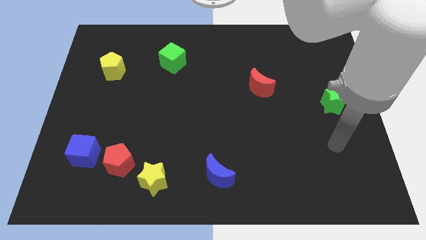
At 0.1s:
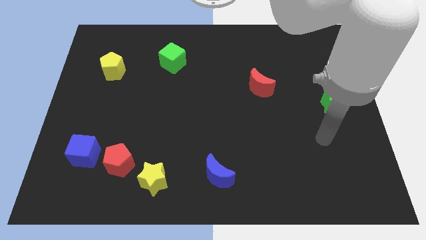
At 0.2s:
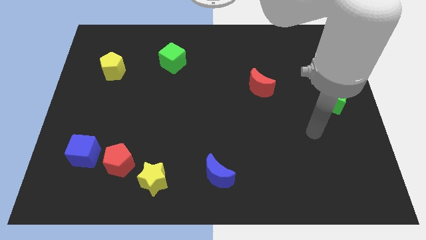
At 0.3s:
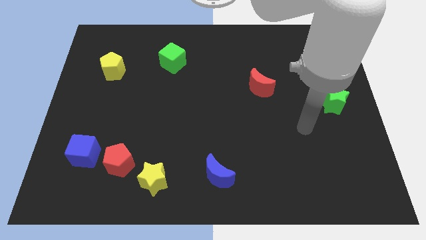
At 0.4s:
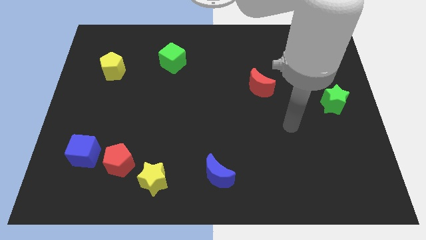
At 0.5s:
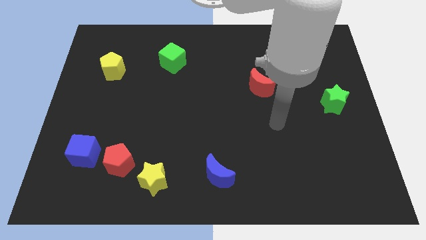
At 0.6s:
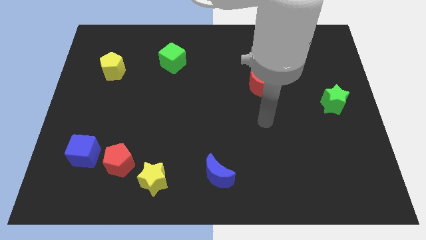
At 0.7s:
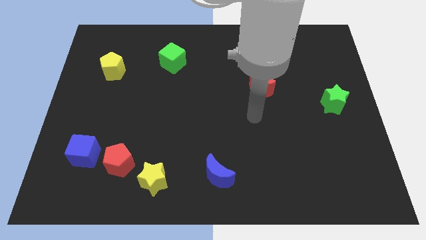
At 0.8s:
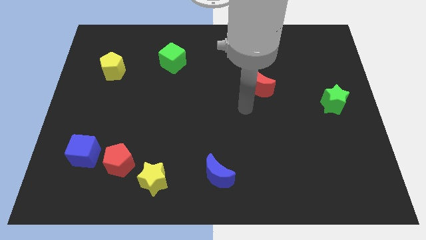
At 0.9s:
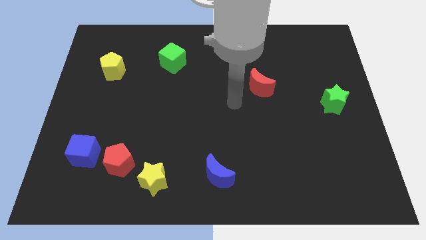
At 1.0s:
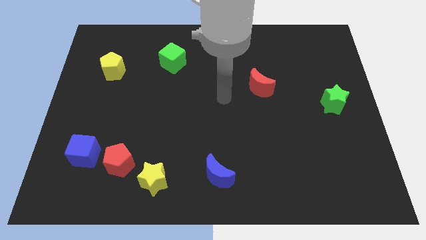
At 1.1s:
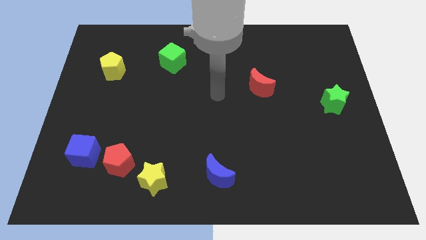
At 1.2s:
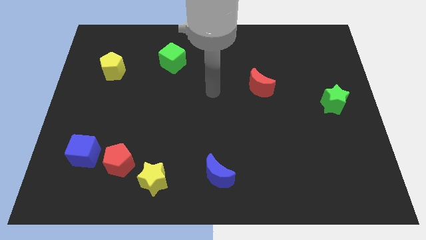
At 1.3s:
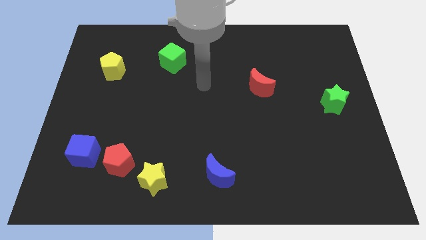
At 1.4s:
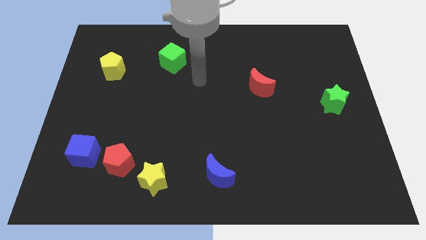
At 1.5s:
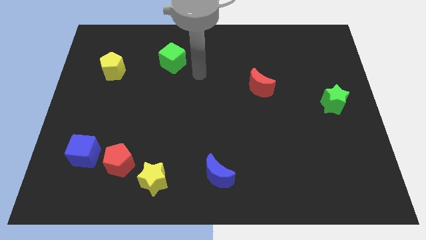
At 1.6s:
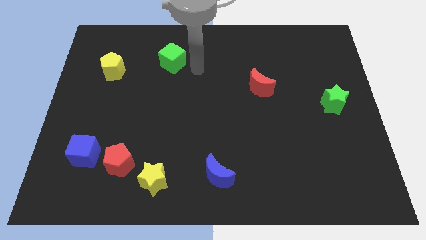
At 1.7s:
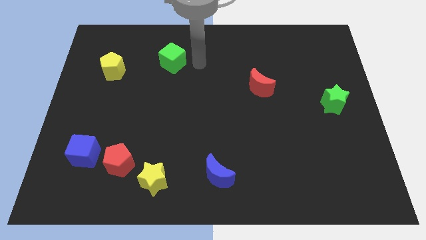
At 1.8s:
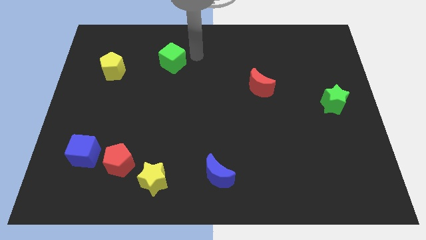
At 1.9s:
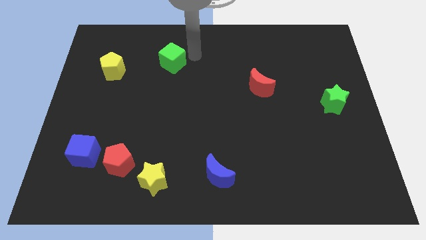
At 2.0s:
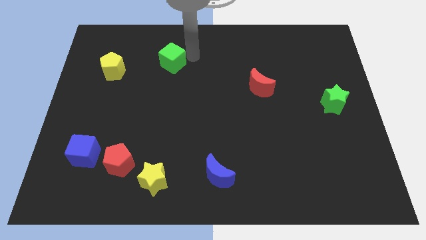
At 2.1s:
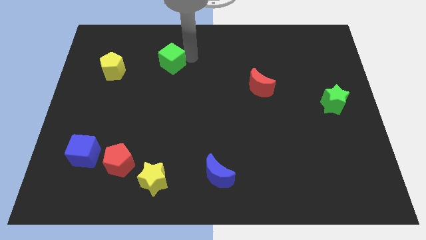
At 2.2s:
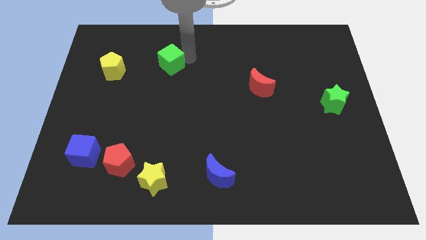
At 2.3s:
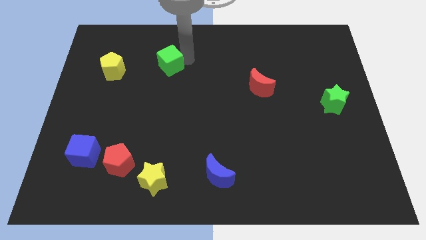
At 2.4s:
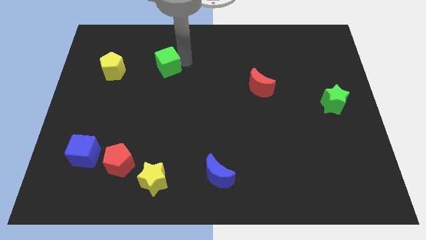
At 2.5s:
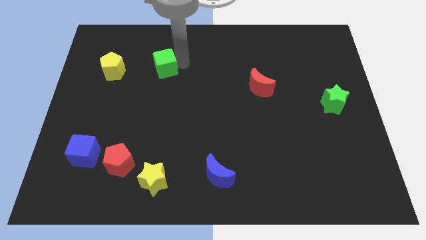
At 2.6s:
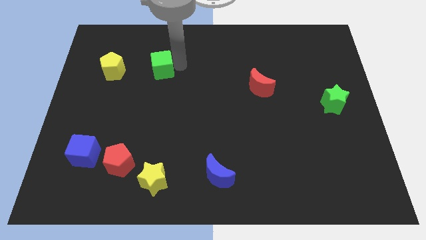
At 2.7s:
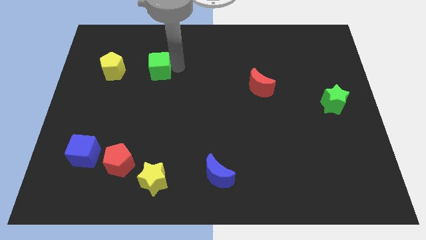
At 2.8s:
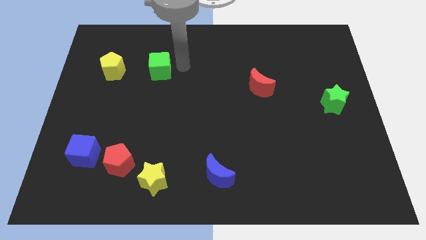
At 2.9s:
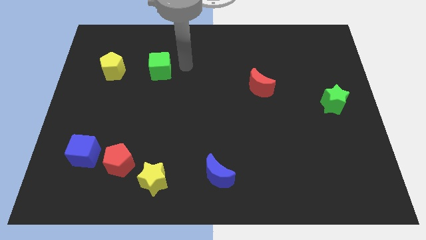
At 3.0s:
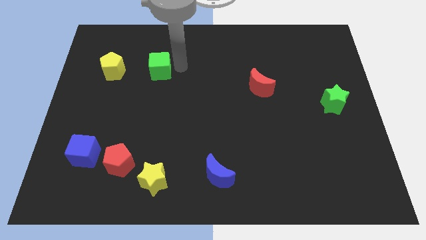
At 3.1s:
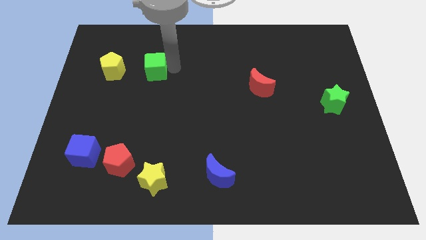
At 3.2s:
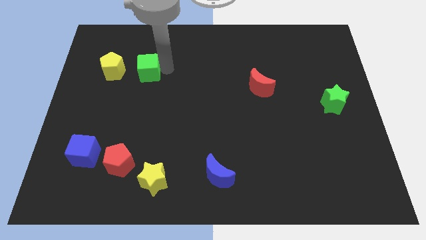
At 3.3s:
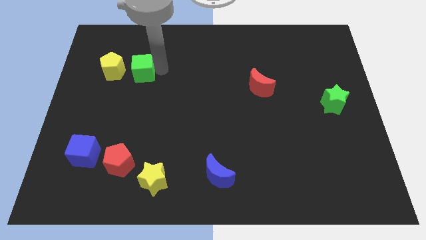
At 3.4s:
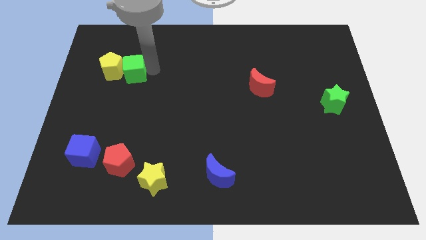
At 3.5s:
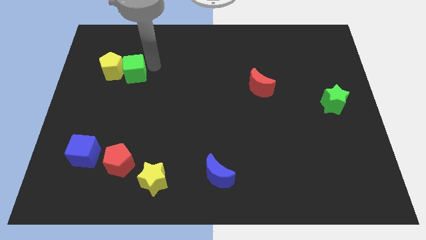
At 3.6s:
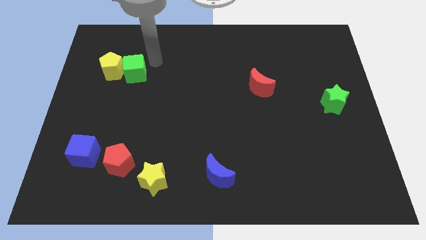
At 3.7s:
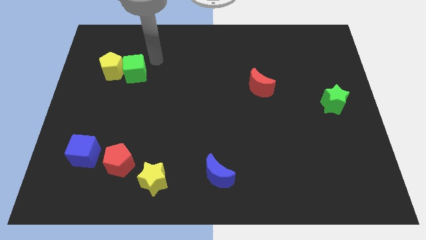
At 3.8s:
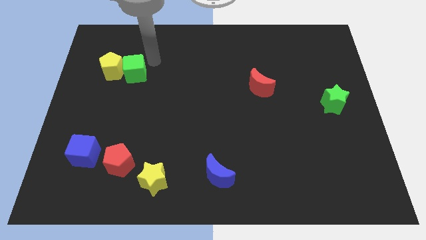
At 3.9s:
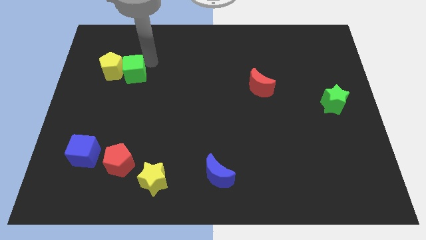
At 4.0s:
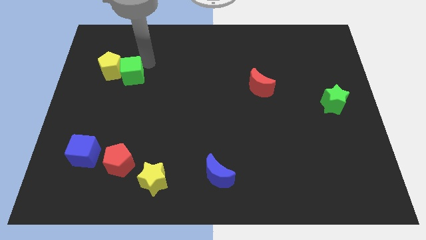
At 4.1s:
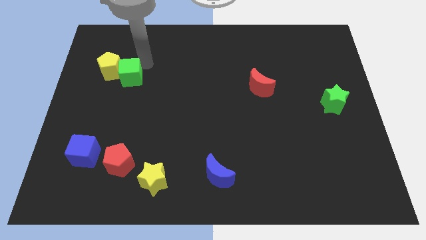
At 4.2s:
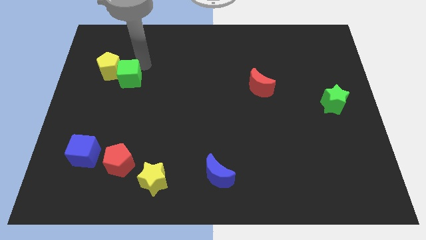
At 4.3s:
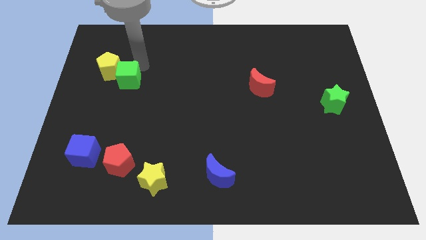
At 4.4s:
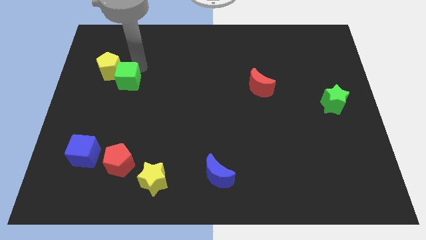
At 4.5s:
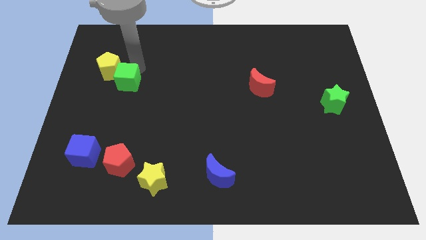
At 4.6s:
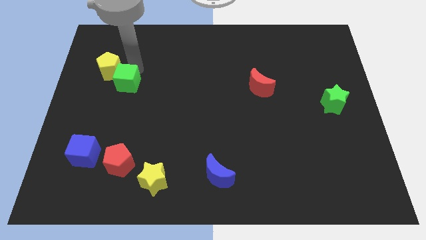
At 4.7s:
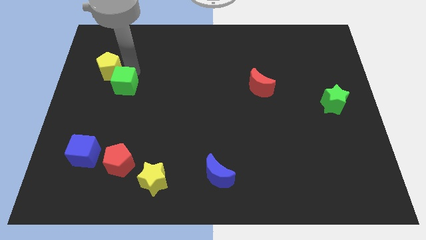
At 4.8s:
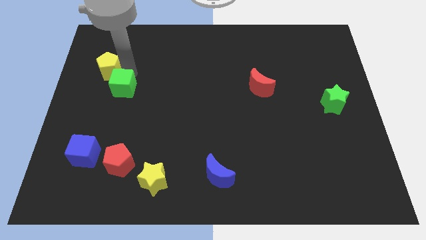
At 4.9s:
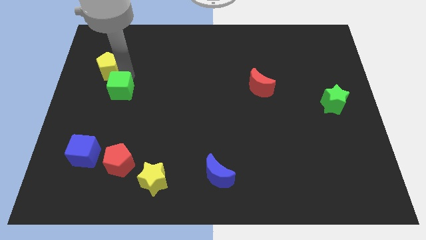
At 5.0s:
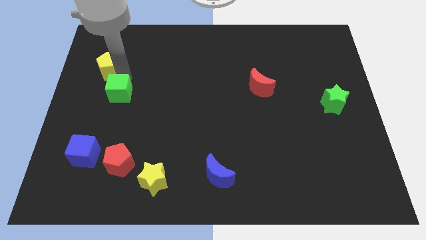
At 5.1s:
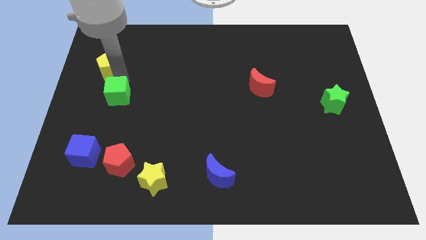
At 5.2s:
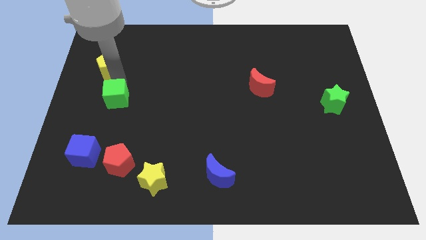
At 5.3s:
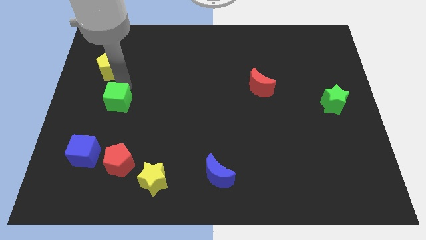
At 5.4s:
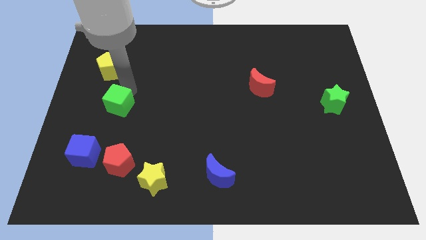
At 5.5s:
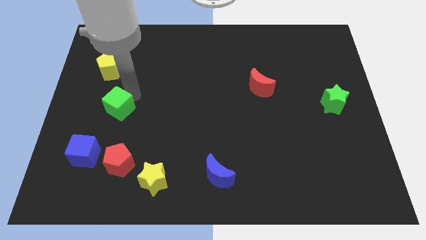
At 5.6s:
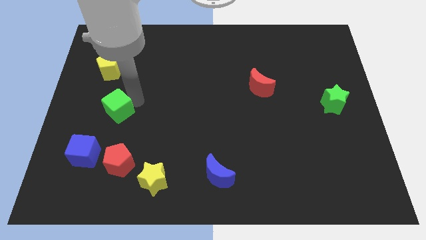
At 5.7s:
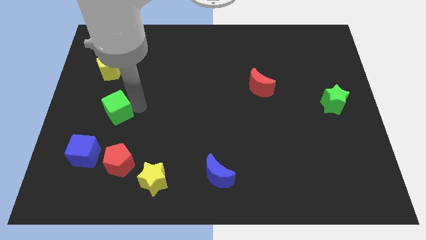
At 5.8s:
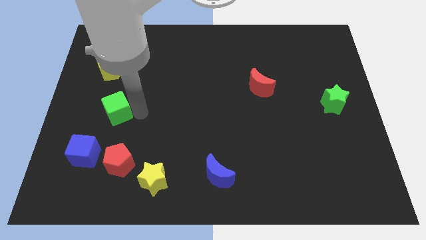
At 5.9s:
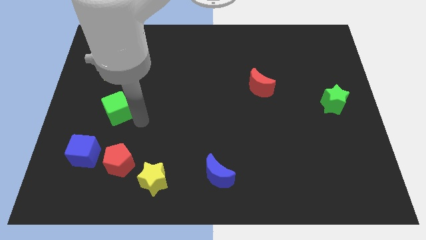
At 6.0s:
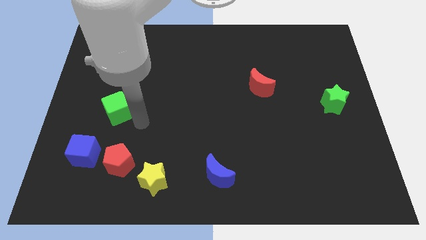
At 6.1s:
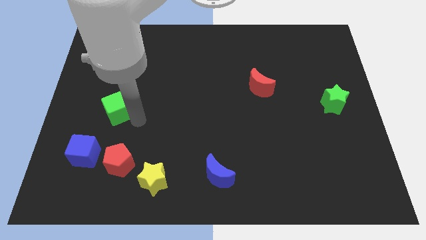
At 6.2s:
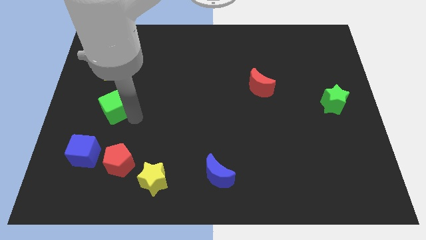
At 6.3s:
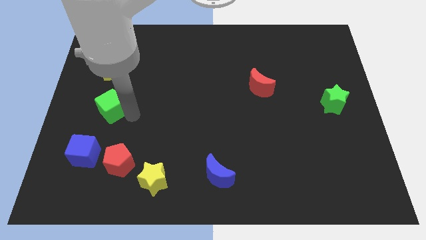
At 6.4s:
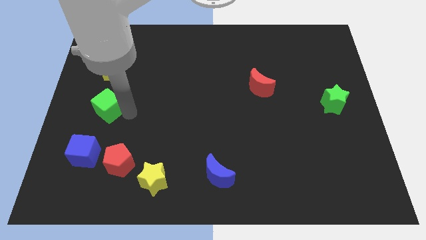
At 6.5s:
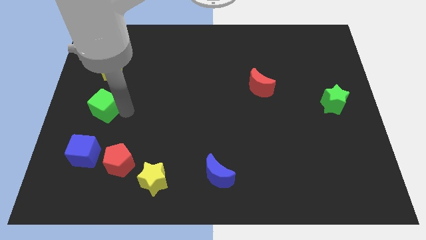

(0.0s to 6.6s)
move the green cube to the left side of the board

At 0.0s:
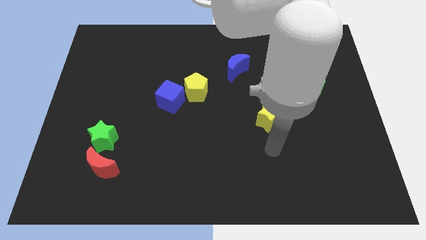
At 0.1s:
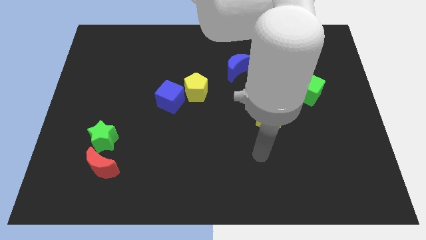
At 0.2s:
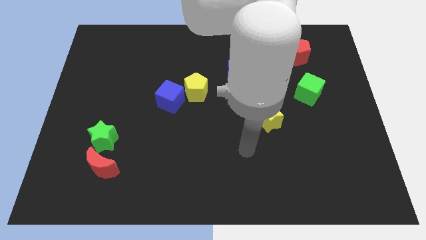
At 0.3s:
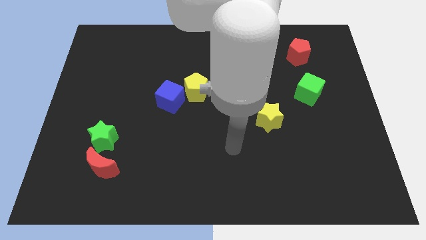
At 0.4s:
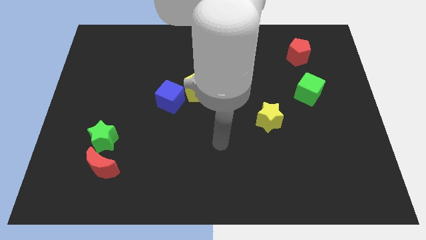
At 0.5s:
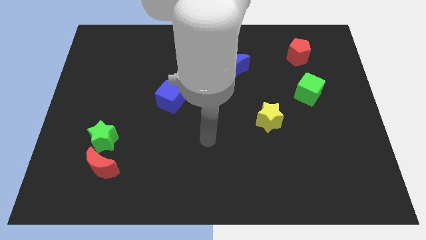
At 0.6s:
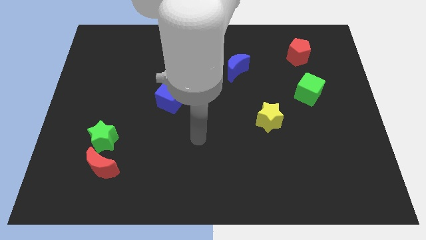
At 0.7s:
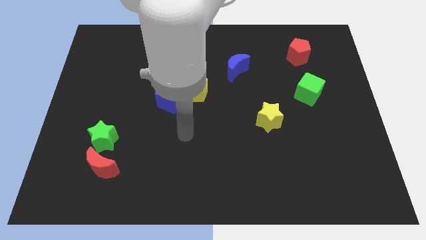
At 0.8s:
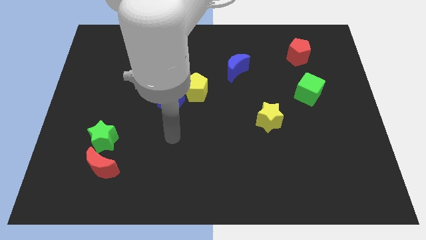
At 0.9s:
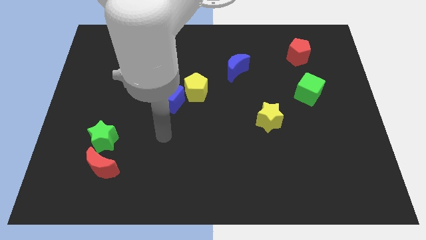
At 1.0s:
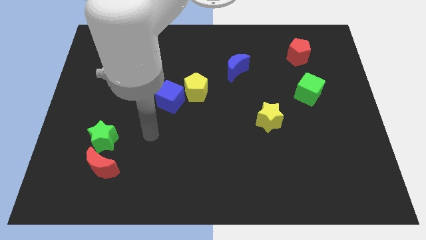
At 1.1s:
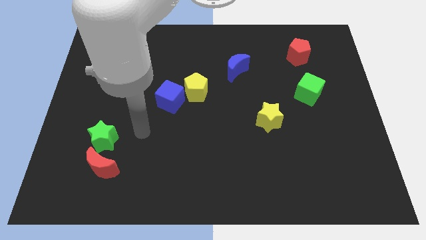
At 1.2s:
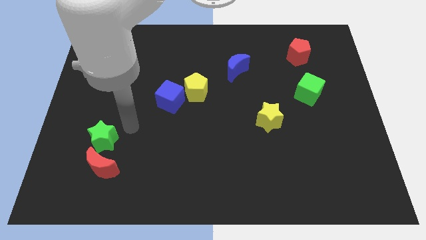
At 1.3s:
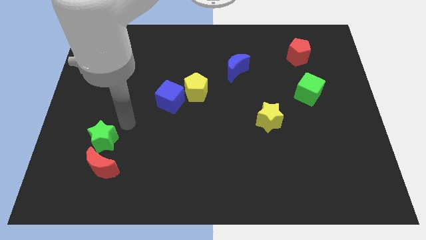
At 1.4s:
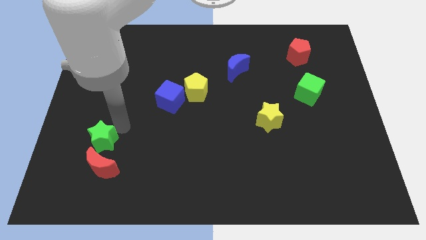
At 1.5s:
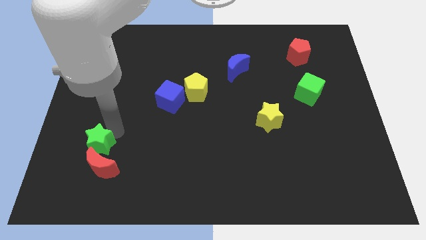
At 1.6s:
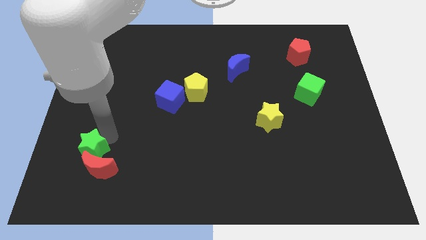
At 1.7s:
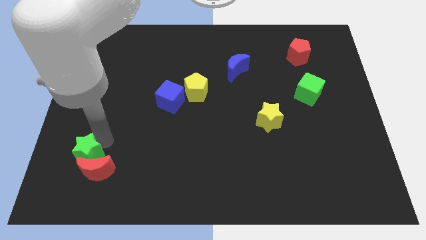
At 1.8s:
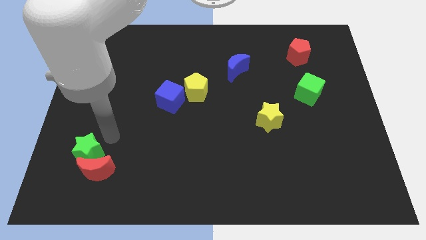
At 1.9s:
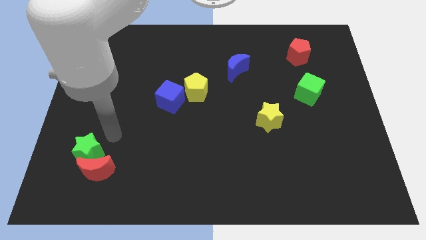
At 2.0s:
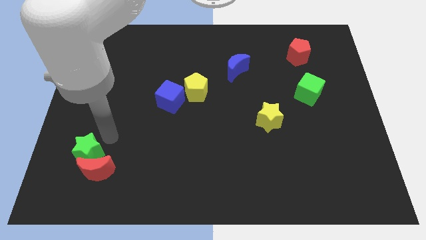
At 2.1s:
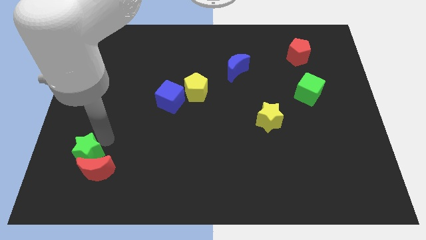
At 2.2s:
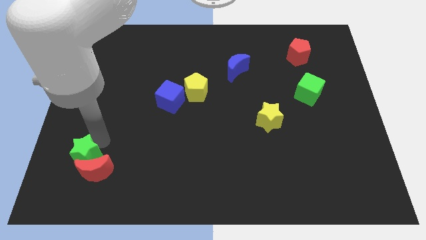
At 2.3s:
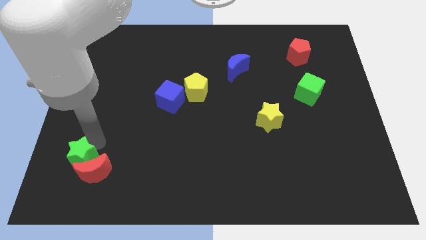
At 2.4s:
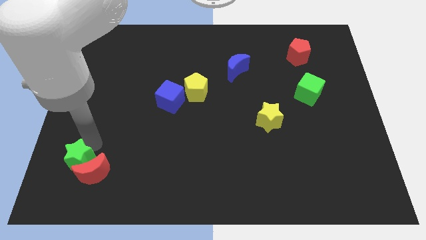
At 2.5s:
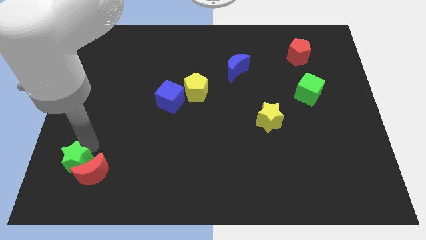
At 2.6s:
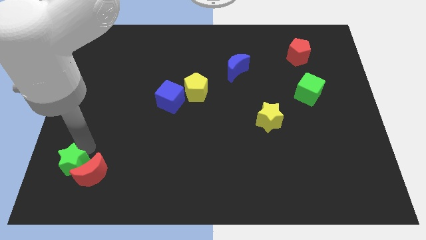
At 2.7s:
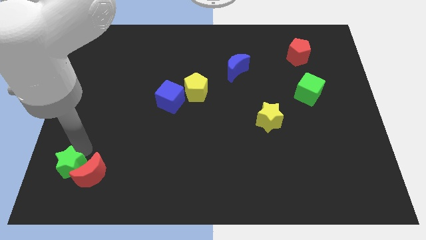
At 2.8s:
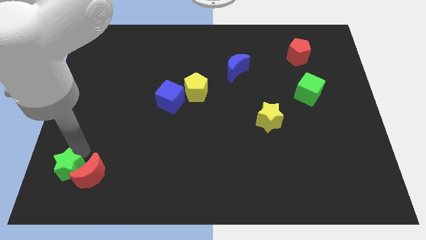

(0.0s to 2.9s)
push the green star to the lower left corner
